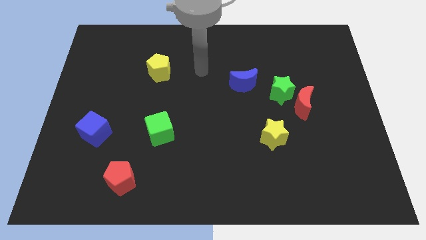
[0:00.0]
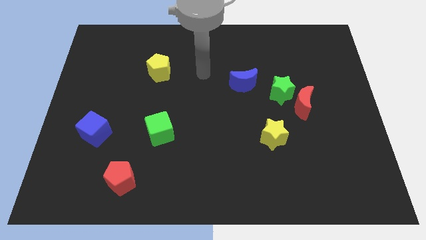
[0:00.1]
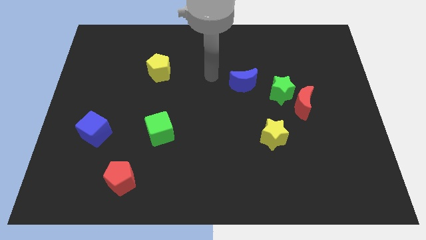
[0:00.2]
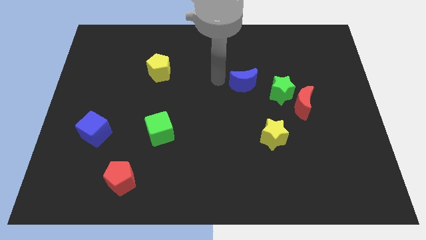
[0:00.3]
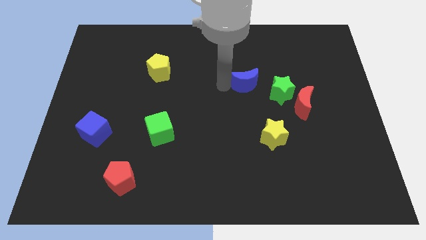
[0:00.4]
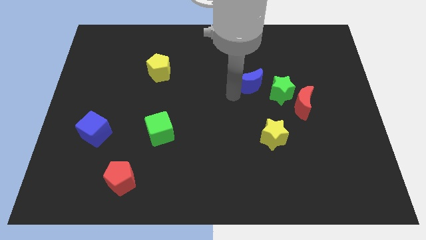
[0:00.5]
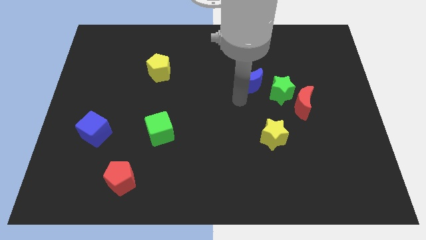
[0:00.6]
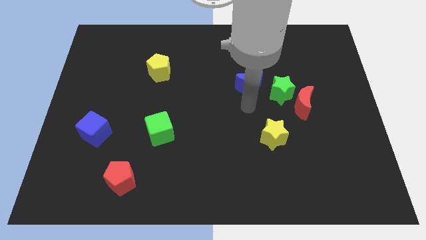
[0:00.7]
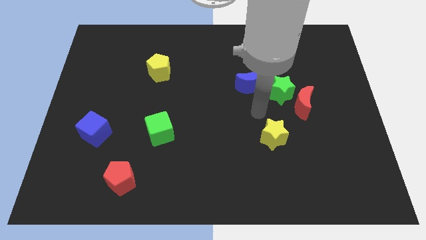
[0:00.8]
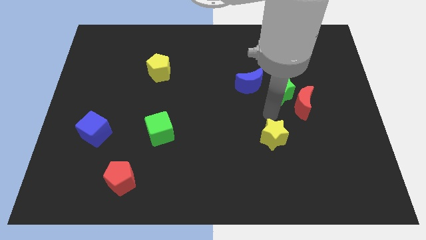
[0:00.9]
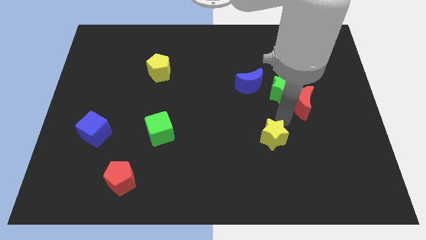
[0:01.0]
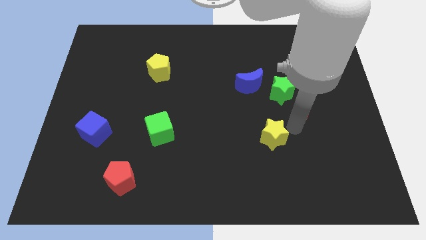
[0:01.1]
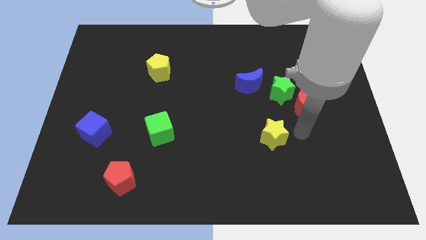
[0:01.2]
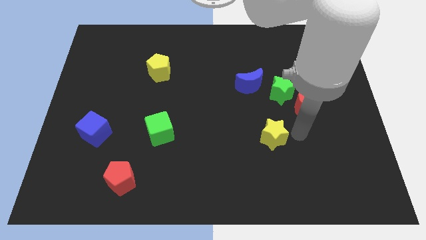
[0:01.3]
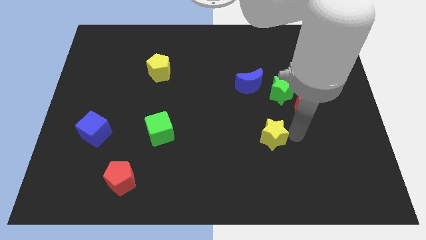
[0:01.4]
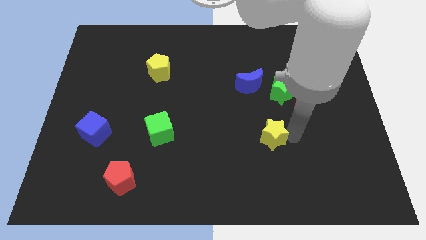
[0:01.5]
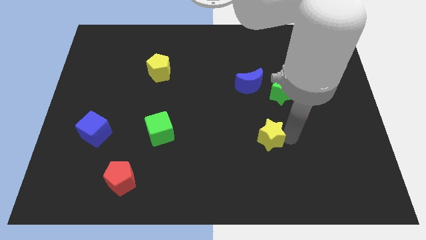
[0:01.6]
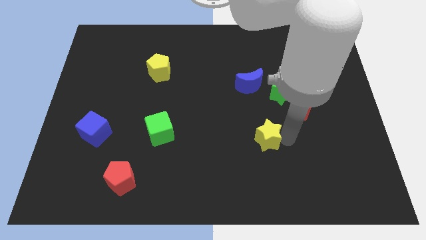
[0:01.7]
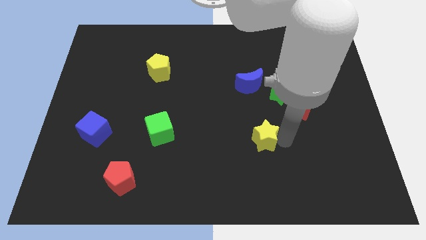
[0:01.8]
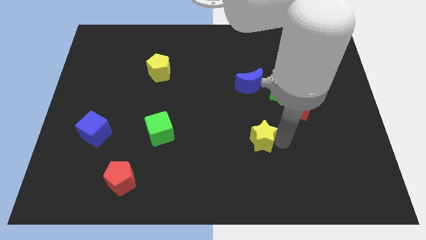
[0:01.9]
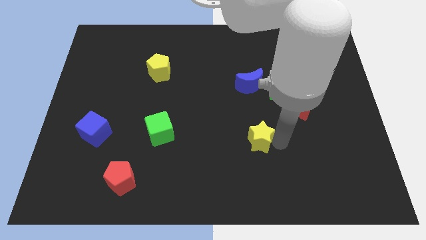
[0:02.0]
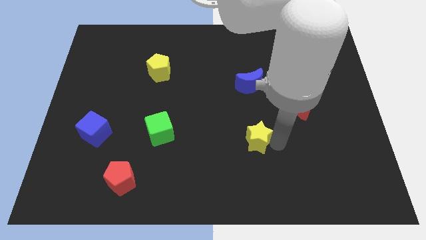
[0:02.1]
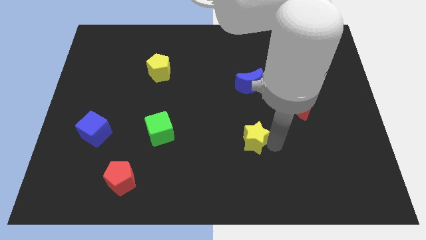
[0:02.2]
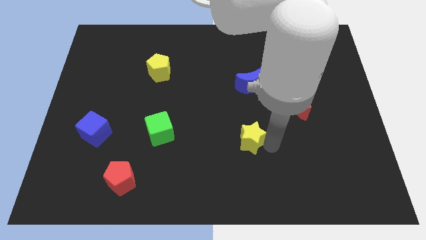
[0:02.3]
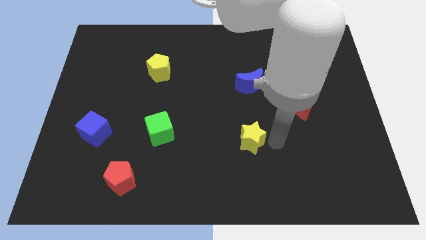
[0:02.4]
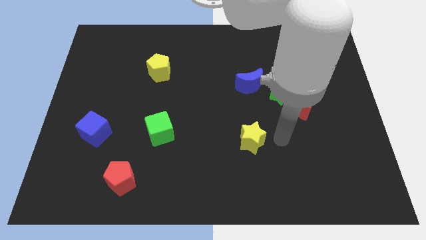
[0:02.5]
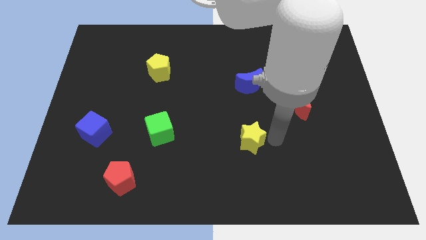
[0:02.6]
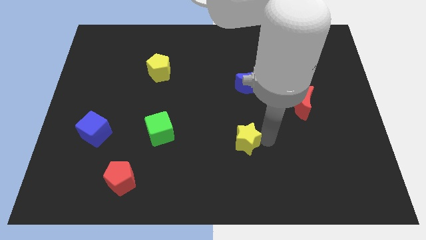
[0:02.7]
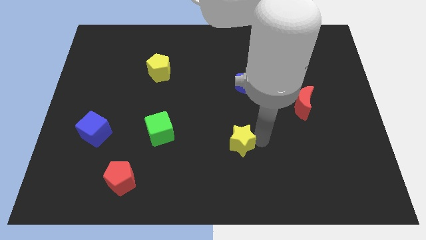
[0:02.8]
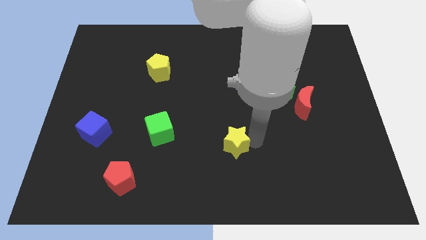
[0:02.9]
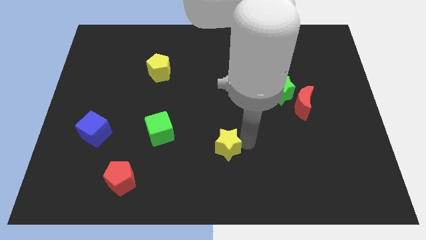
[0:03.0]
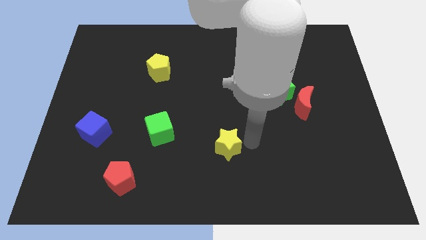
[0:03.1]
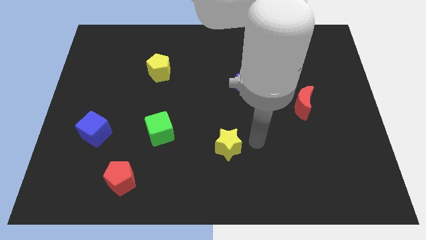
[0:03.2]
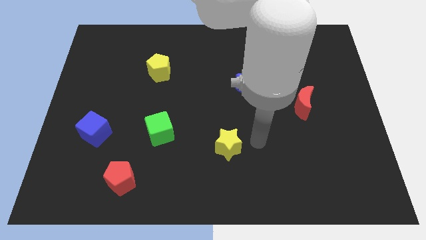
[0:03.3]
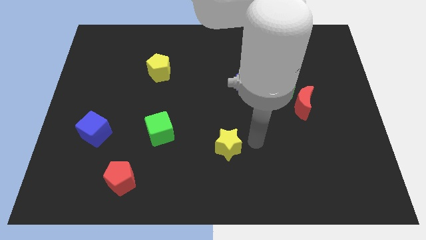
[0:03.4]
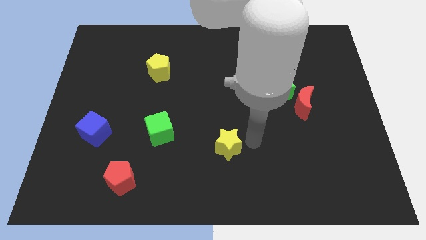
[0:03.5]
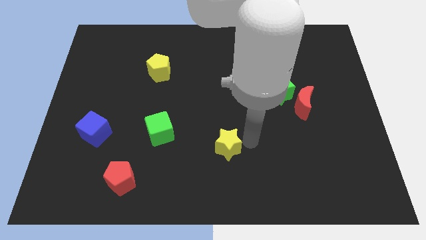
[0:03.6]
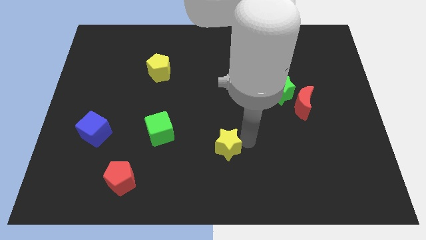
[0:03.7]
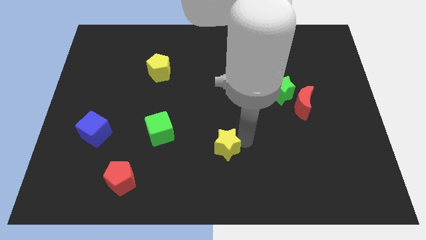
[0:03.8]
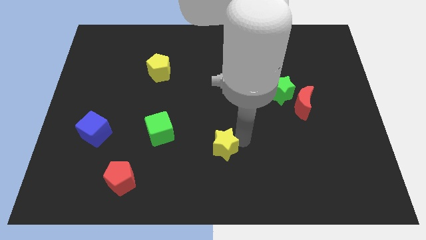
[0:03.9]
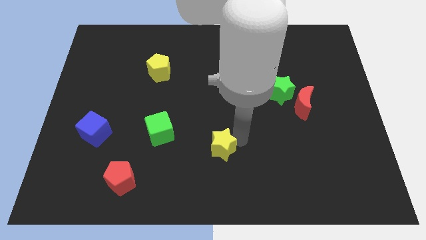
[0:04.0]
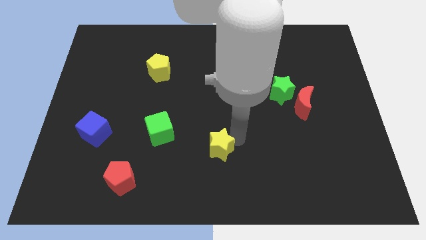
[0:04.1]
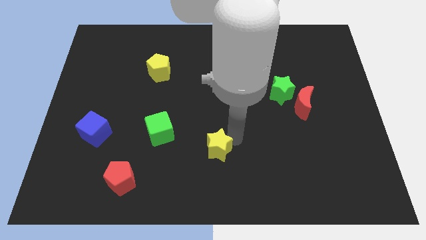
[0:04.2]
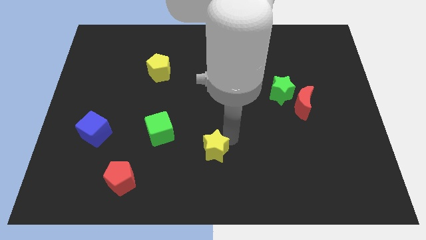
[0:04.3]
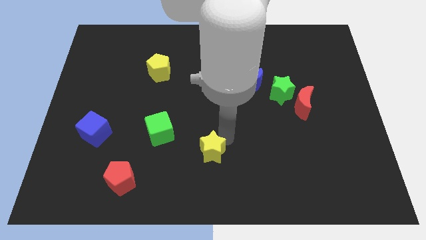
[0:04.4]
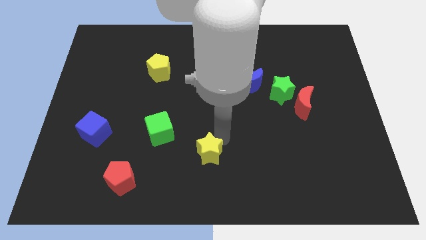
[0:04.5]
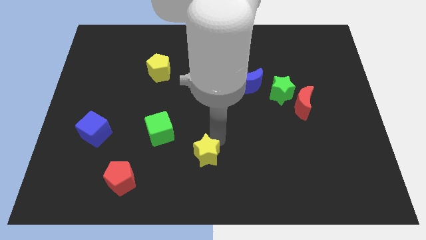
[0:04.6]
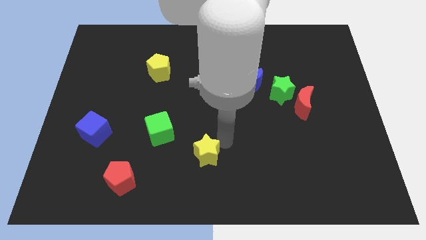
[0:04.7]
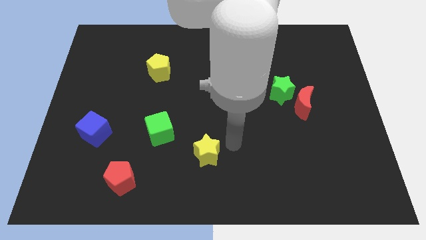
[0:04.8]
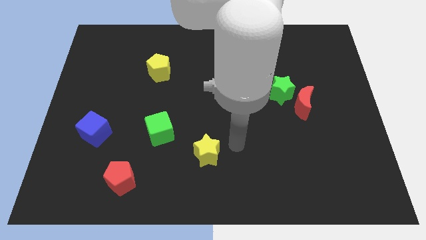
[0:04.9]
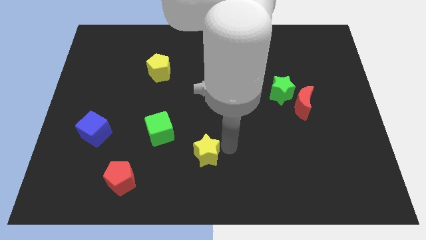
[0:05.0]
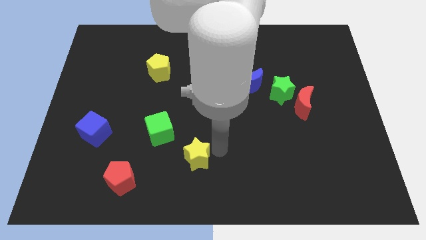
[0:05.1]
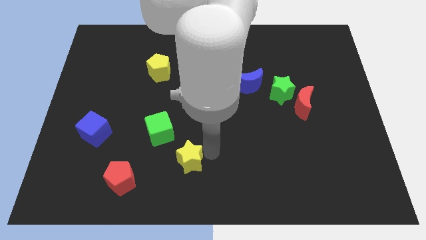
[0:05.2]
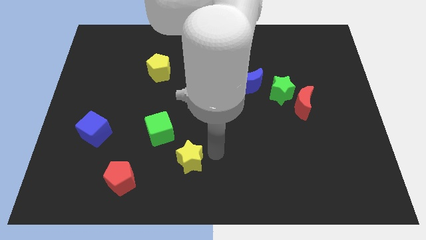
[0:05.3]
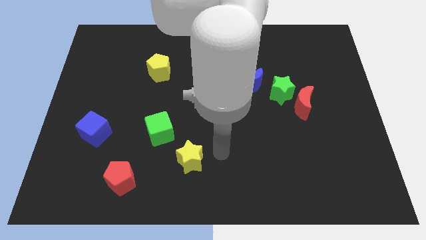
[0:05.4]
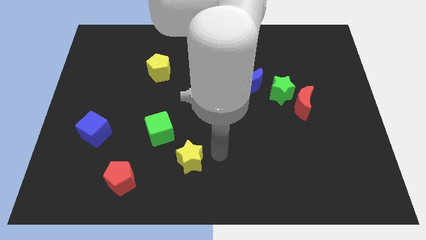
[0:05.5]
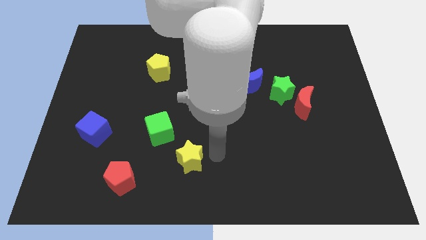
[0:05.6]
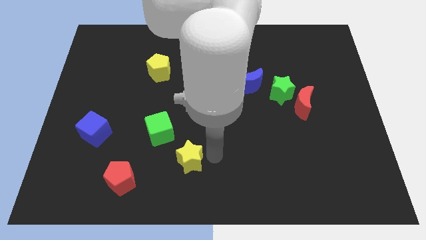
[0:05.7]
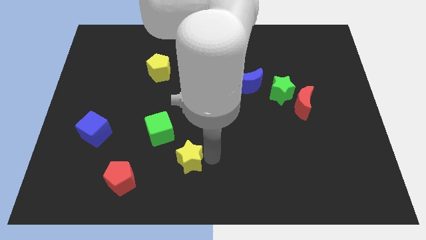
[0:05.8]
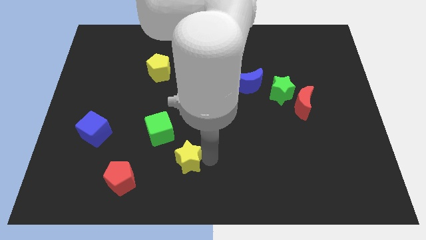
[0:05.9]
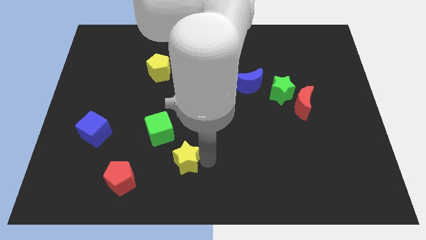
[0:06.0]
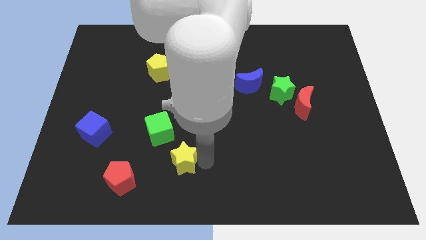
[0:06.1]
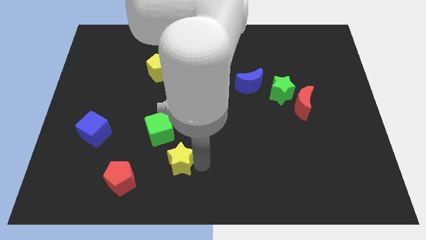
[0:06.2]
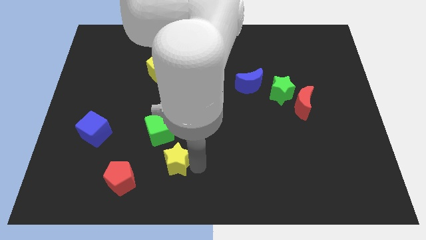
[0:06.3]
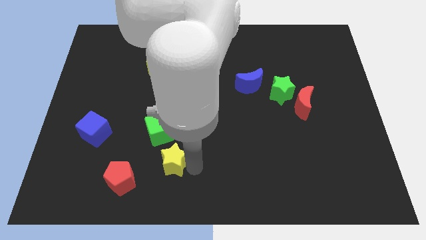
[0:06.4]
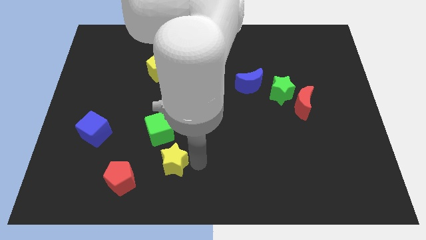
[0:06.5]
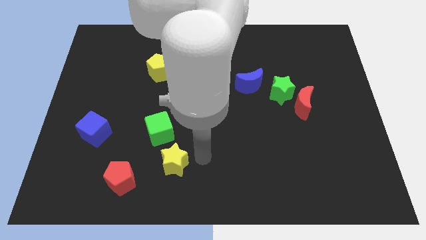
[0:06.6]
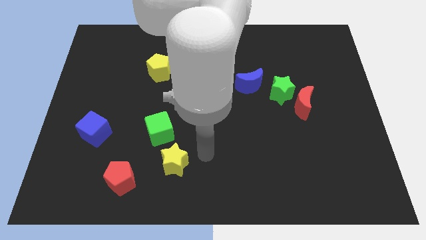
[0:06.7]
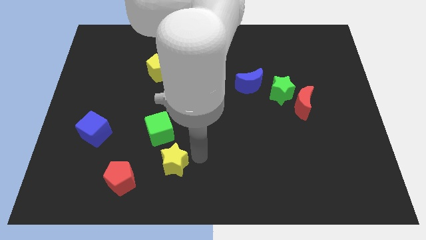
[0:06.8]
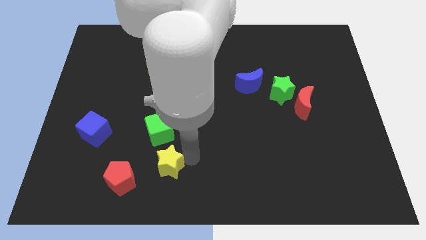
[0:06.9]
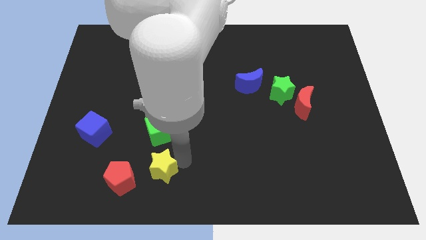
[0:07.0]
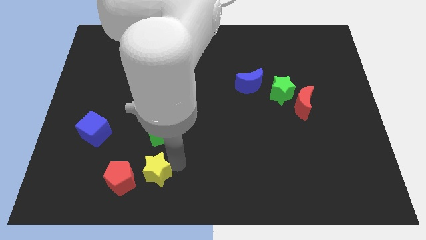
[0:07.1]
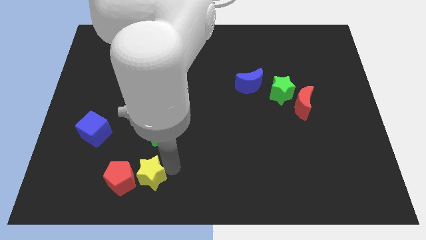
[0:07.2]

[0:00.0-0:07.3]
push the yellow star to the red pentagon

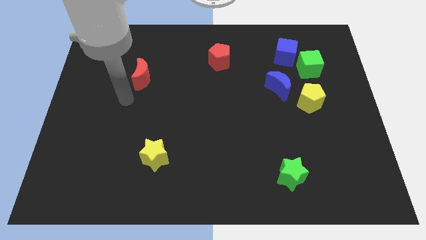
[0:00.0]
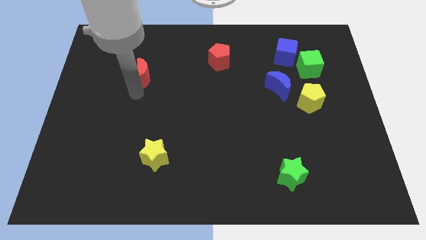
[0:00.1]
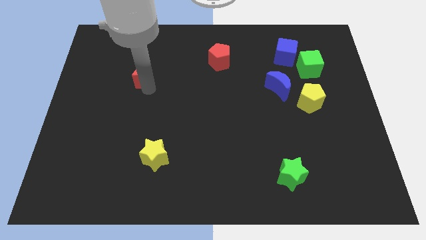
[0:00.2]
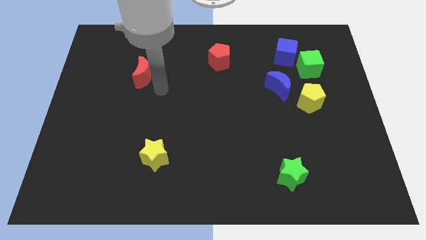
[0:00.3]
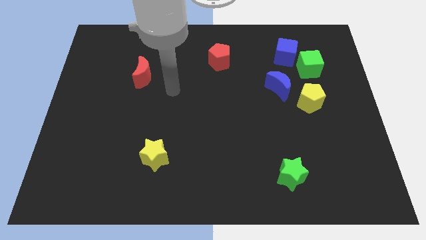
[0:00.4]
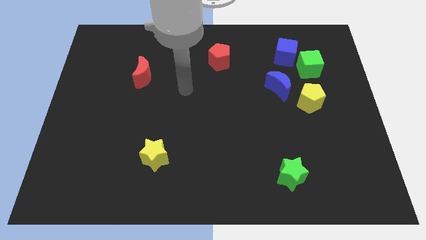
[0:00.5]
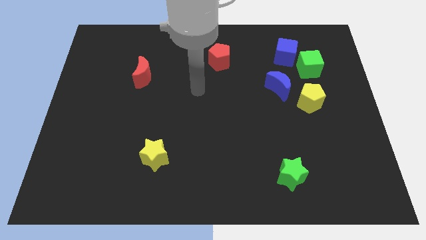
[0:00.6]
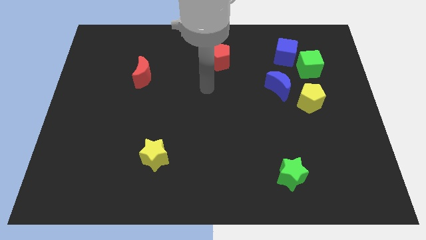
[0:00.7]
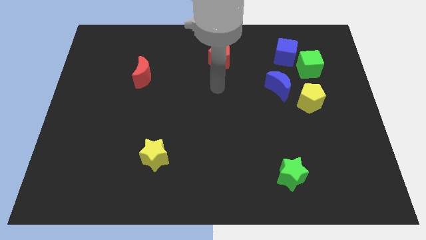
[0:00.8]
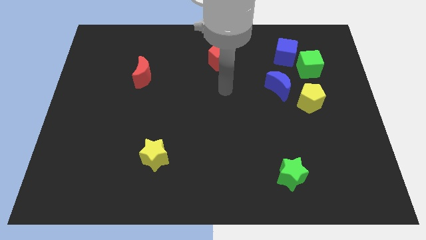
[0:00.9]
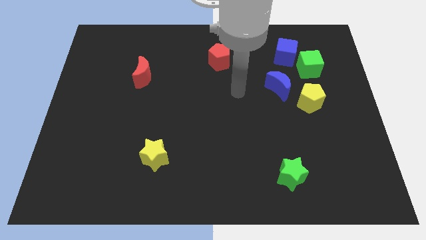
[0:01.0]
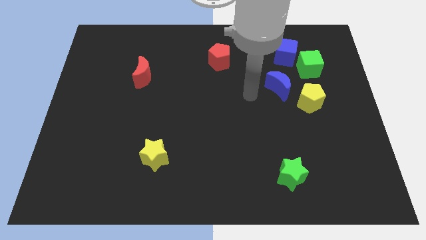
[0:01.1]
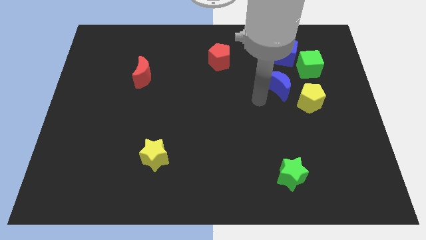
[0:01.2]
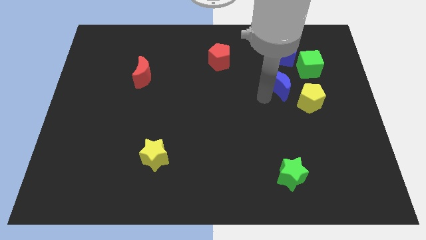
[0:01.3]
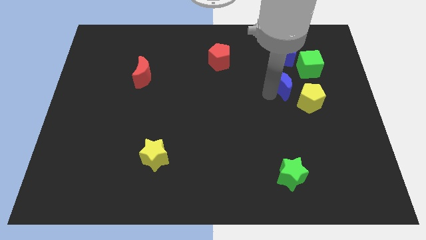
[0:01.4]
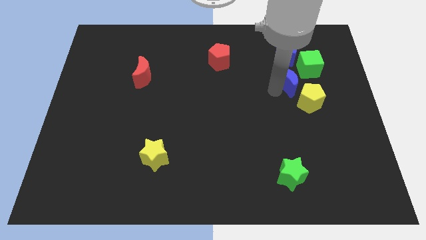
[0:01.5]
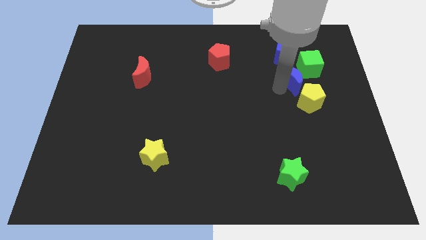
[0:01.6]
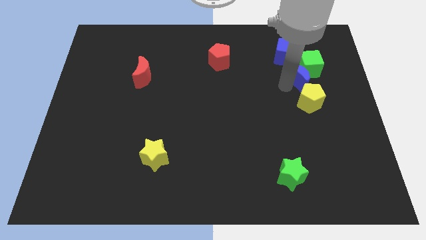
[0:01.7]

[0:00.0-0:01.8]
push the blue moon next to the green cube
